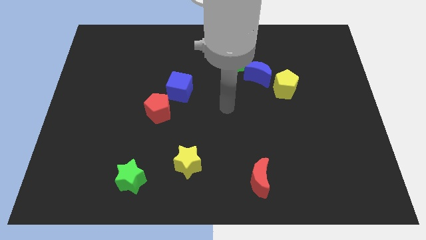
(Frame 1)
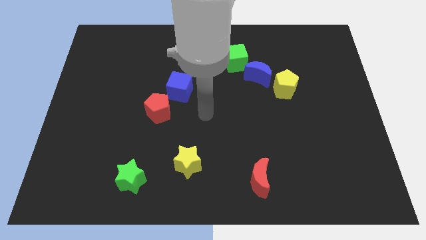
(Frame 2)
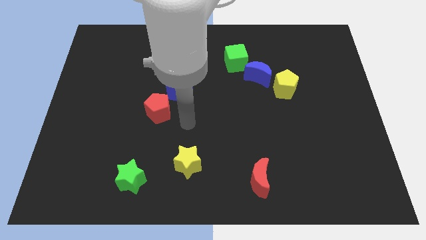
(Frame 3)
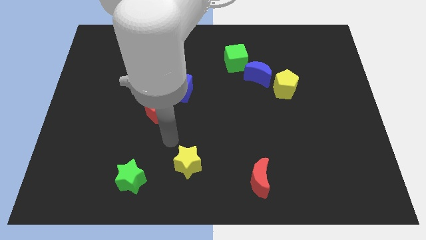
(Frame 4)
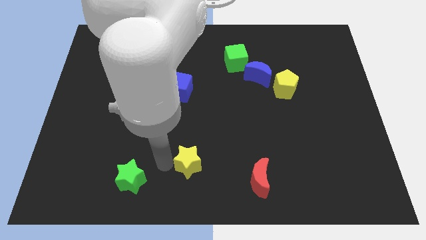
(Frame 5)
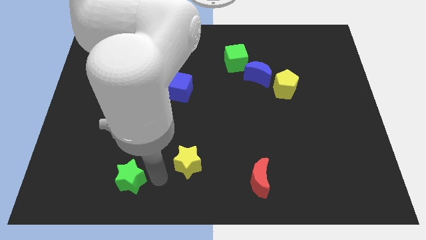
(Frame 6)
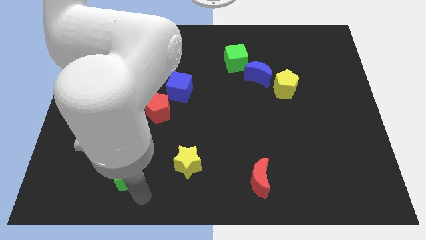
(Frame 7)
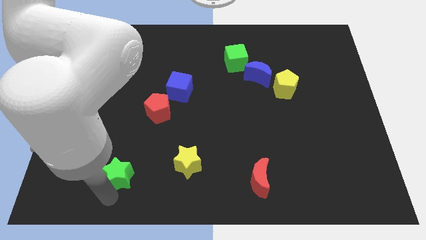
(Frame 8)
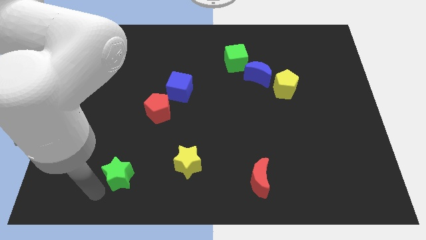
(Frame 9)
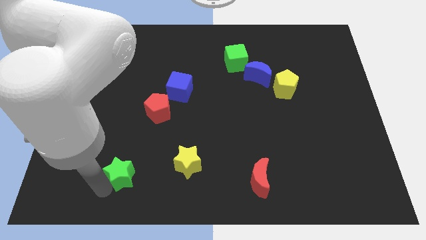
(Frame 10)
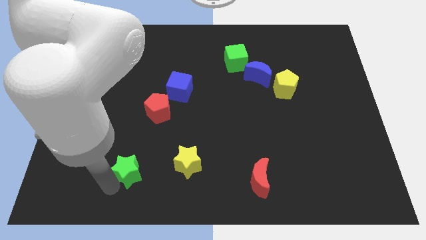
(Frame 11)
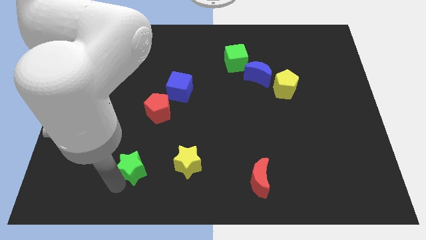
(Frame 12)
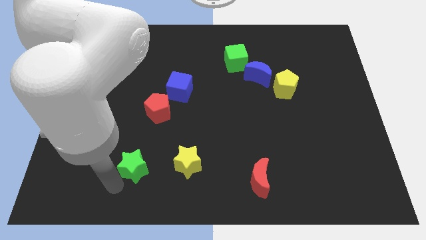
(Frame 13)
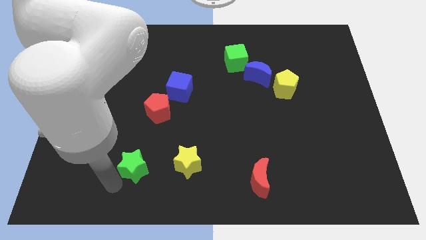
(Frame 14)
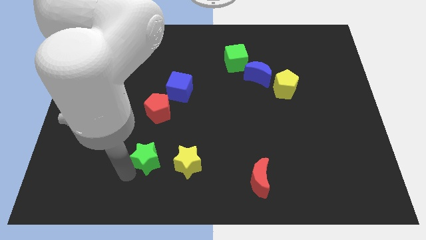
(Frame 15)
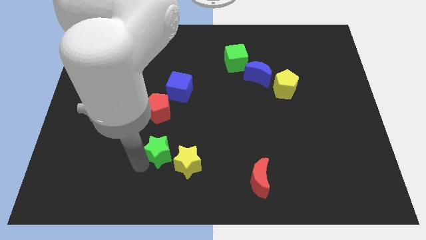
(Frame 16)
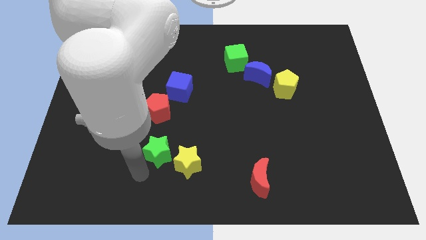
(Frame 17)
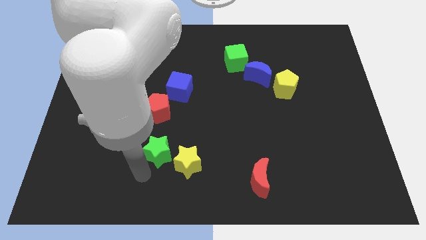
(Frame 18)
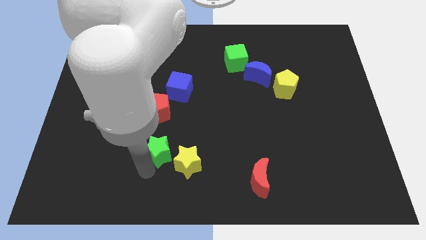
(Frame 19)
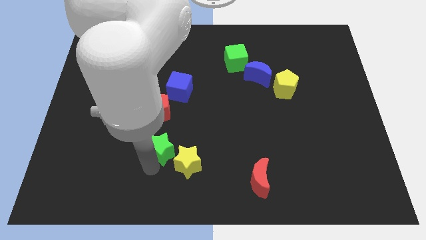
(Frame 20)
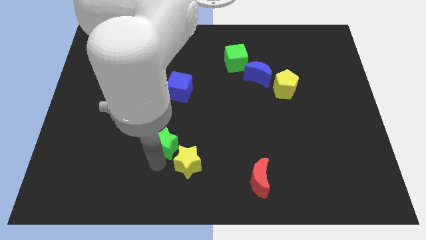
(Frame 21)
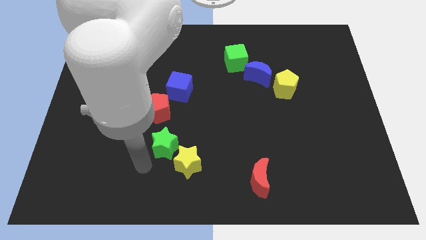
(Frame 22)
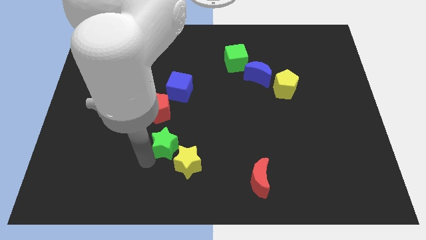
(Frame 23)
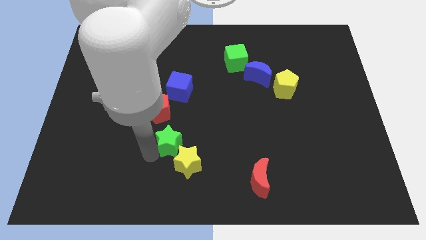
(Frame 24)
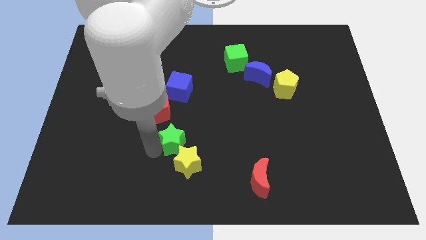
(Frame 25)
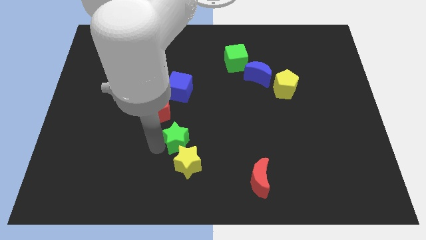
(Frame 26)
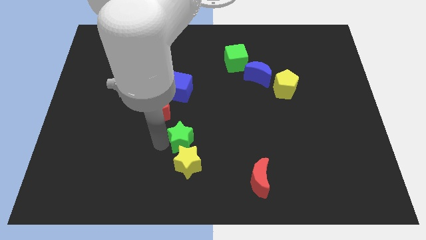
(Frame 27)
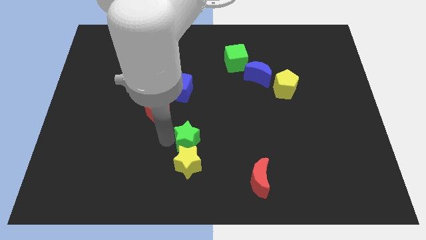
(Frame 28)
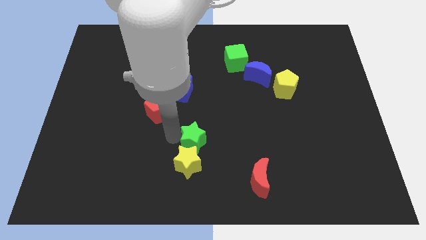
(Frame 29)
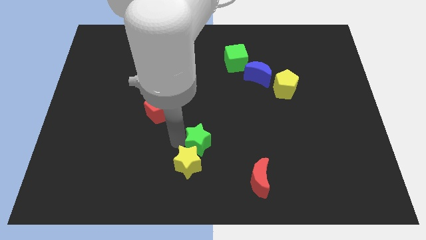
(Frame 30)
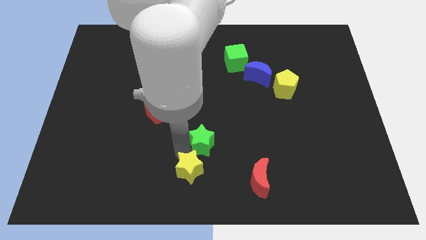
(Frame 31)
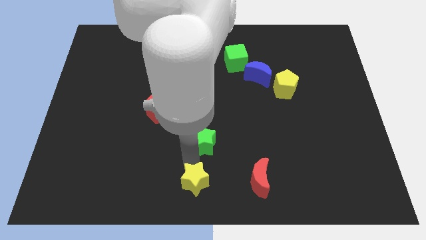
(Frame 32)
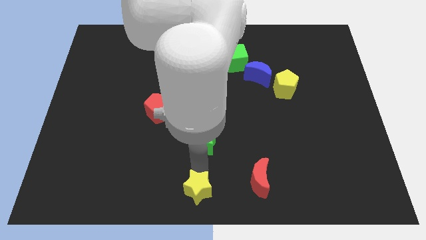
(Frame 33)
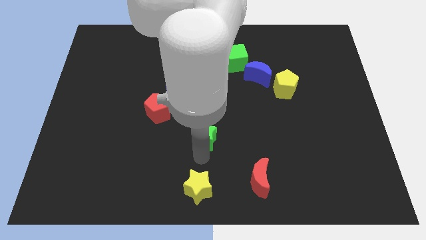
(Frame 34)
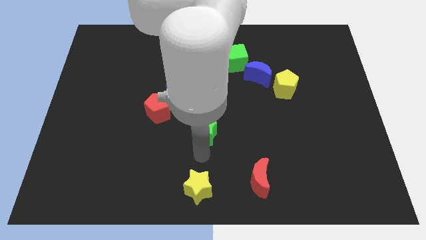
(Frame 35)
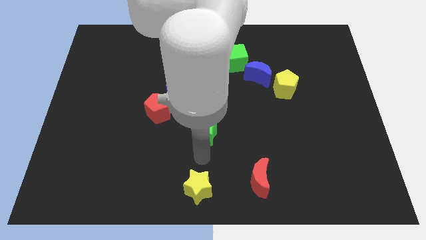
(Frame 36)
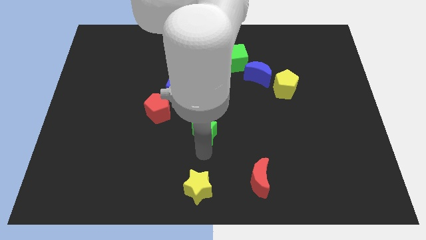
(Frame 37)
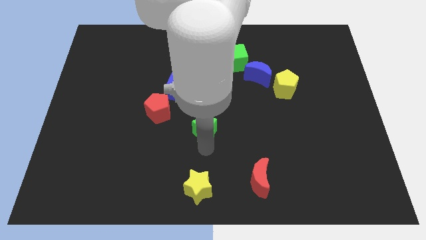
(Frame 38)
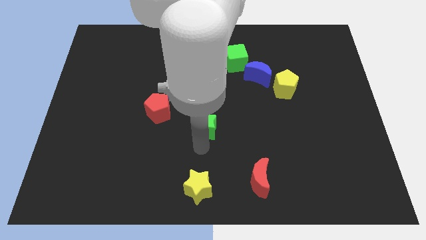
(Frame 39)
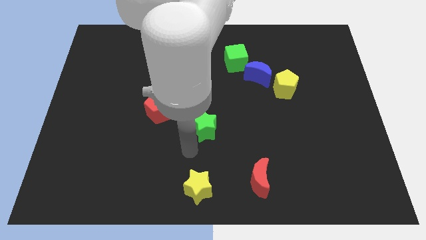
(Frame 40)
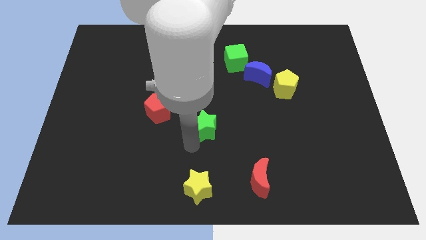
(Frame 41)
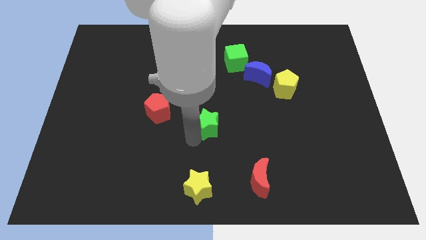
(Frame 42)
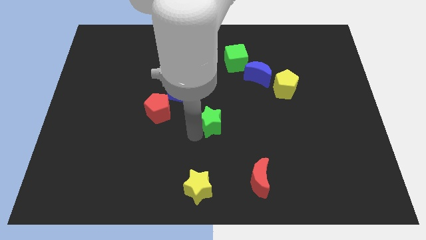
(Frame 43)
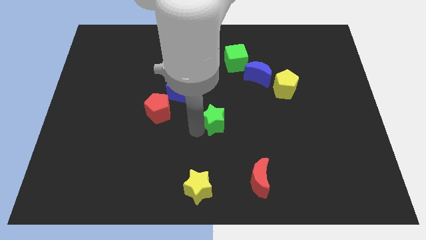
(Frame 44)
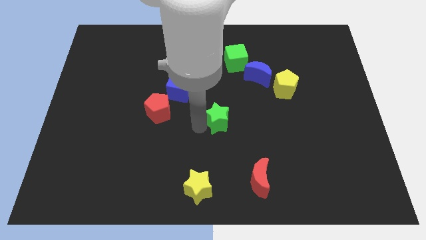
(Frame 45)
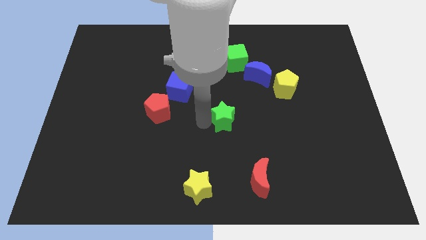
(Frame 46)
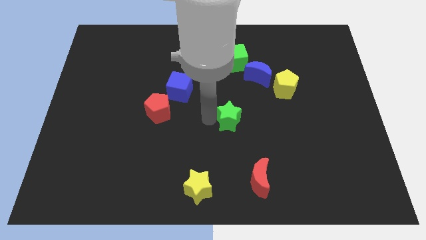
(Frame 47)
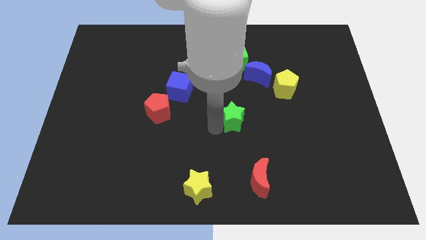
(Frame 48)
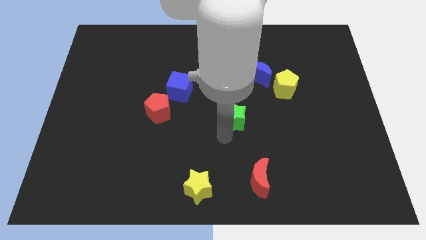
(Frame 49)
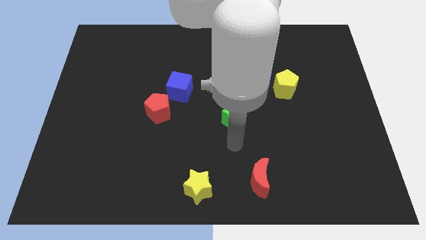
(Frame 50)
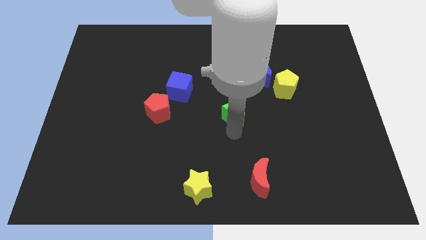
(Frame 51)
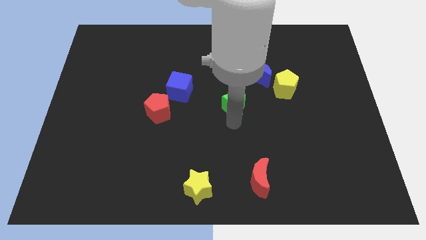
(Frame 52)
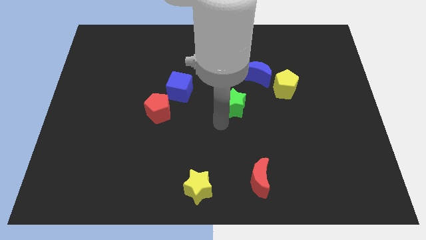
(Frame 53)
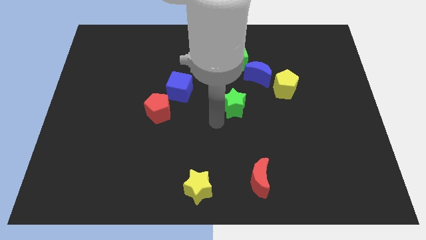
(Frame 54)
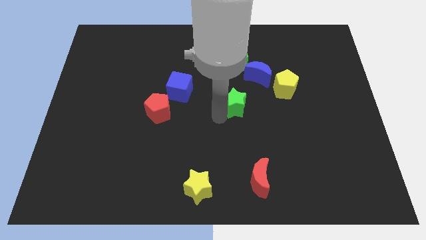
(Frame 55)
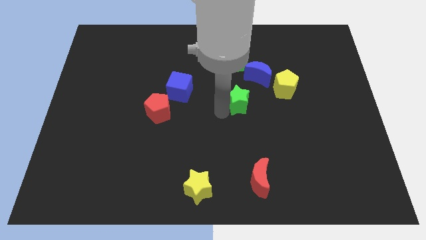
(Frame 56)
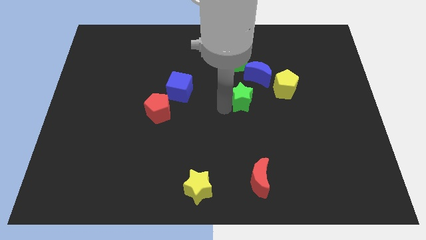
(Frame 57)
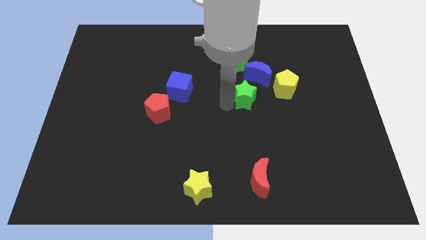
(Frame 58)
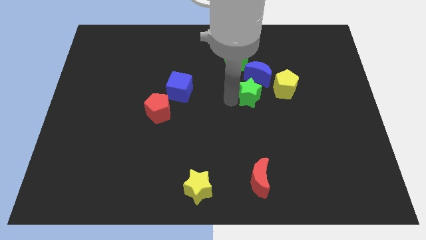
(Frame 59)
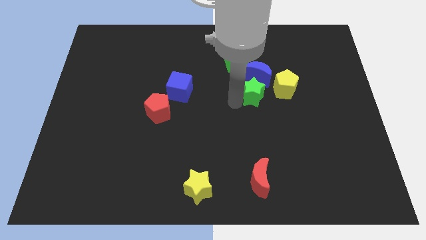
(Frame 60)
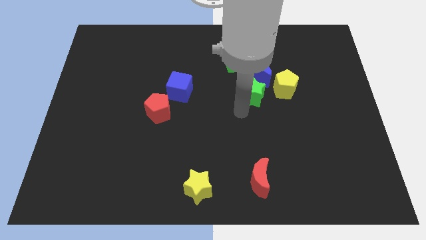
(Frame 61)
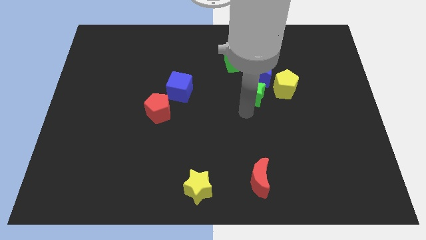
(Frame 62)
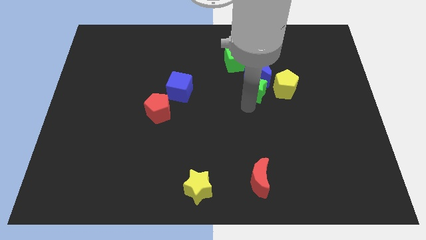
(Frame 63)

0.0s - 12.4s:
slide the green star towards the blue moon

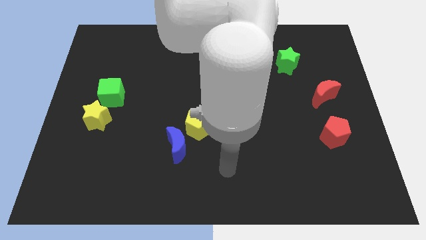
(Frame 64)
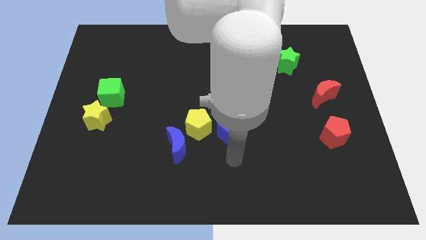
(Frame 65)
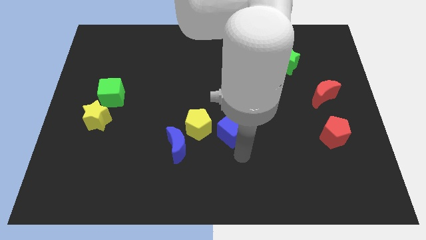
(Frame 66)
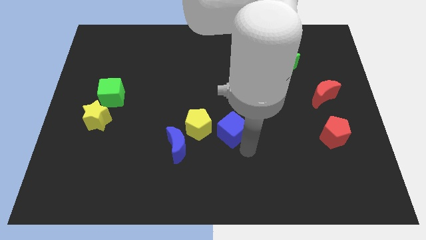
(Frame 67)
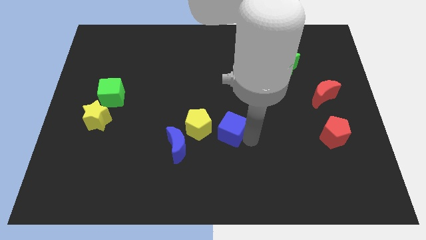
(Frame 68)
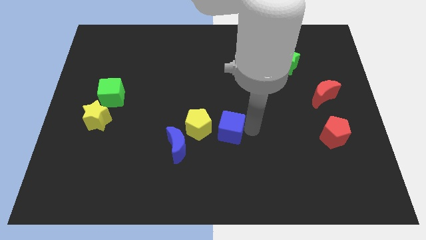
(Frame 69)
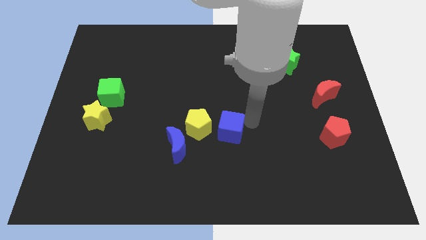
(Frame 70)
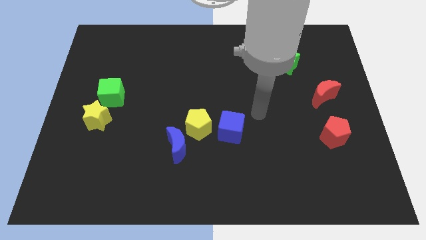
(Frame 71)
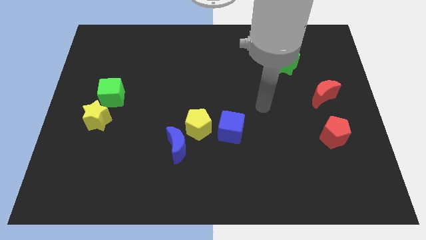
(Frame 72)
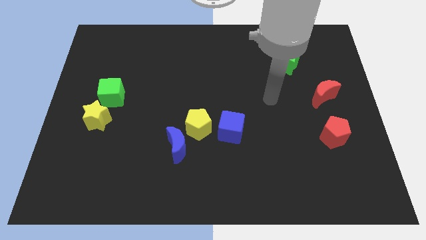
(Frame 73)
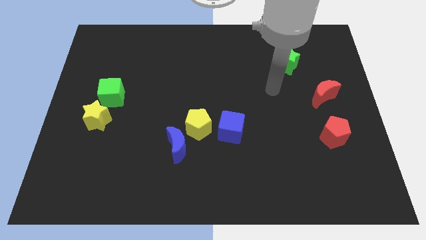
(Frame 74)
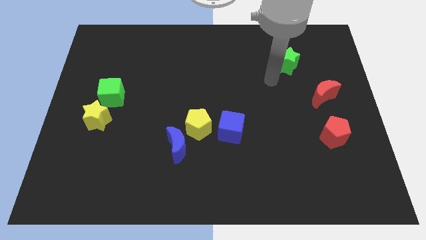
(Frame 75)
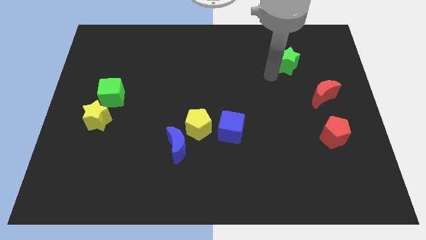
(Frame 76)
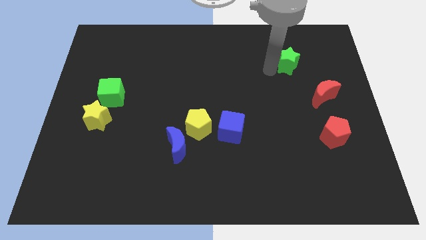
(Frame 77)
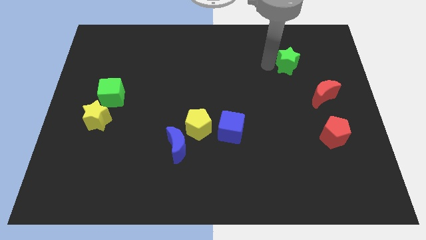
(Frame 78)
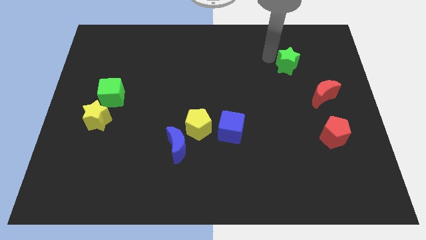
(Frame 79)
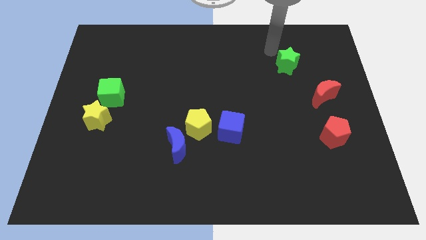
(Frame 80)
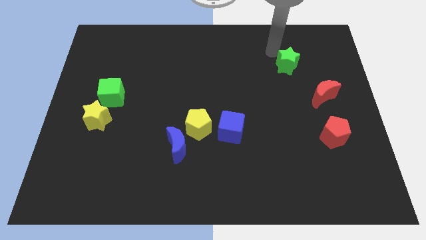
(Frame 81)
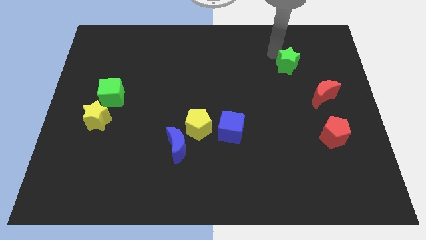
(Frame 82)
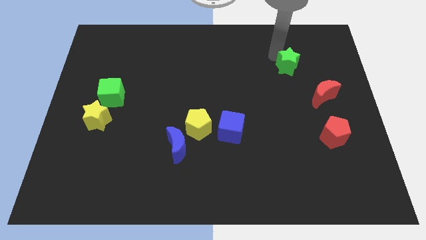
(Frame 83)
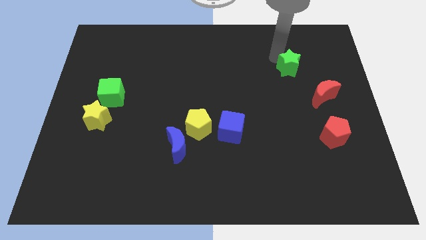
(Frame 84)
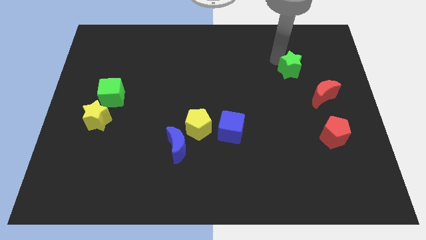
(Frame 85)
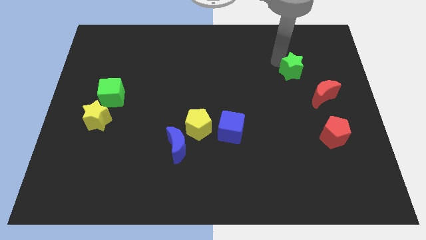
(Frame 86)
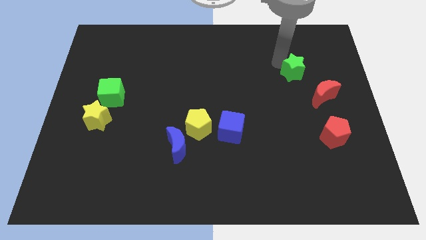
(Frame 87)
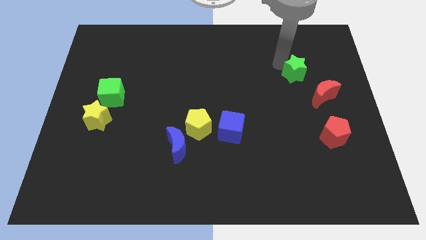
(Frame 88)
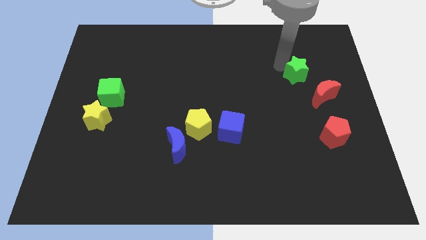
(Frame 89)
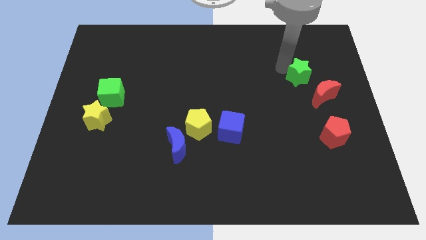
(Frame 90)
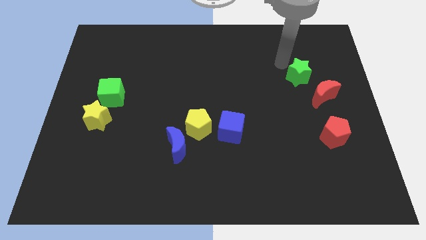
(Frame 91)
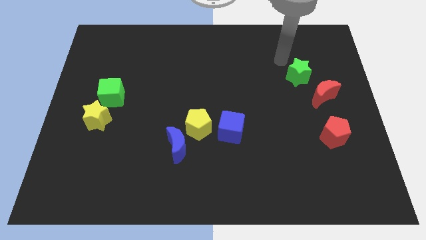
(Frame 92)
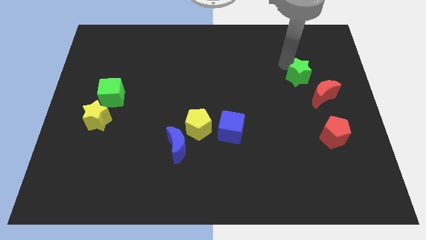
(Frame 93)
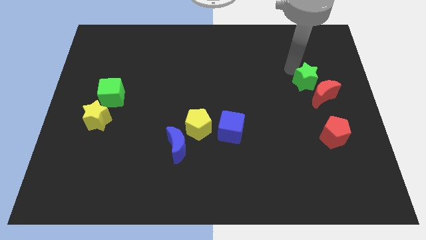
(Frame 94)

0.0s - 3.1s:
put the green star towards the red moon
